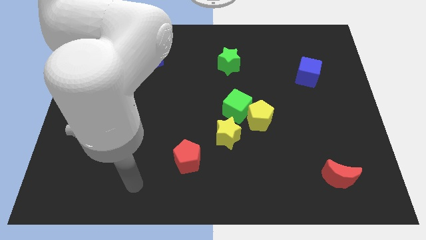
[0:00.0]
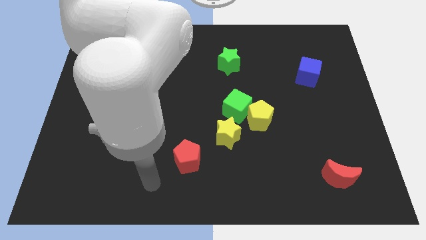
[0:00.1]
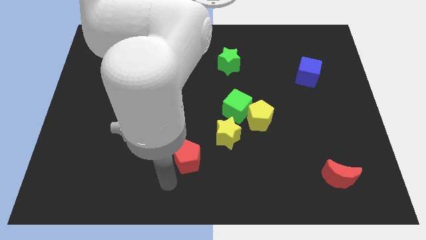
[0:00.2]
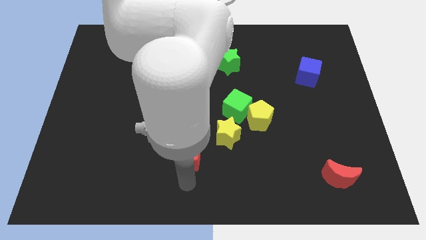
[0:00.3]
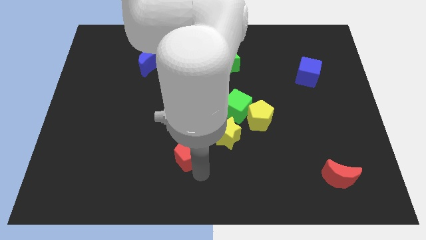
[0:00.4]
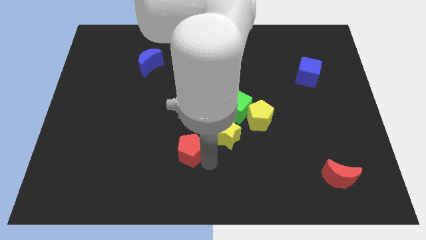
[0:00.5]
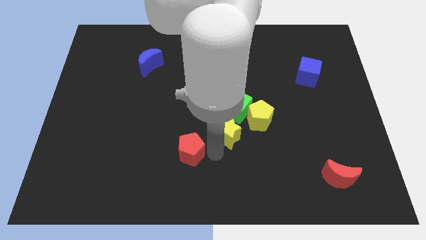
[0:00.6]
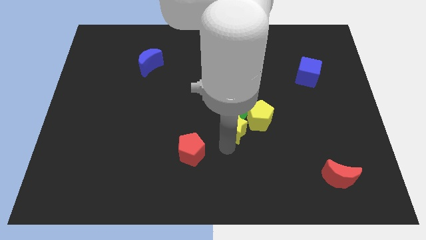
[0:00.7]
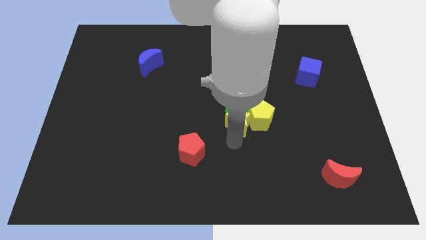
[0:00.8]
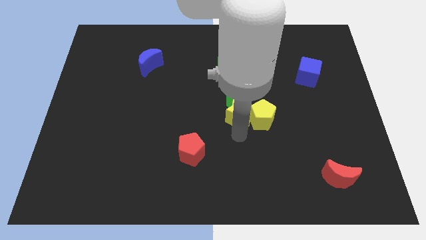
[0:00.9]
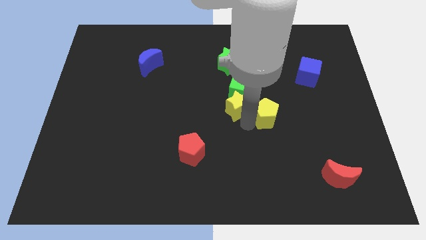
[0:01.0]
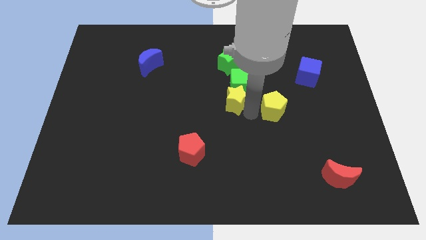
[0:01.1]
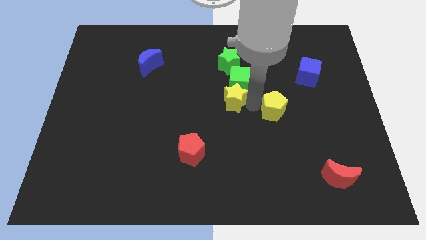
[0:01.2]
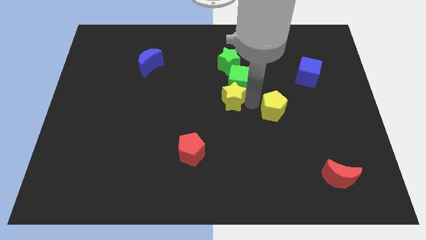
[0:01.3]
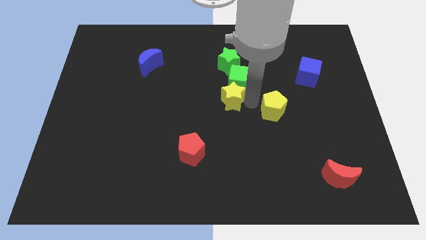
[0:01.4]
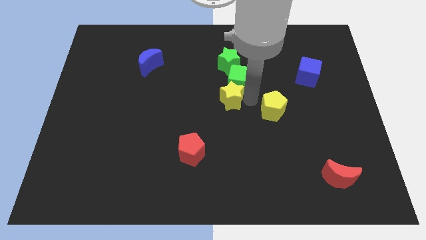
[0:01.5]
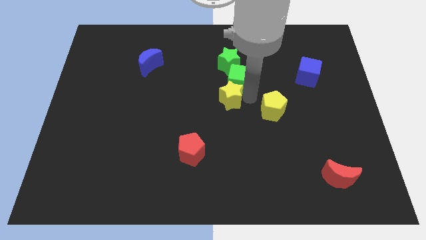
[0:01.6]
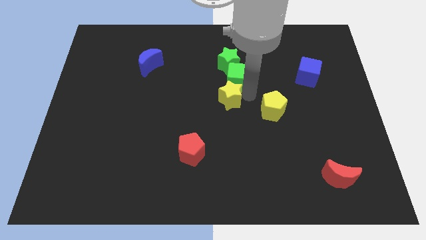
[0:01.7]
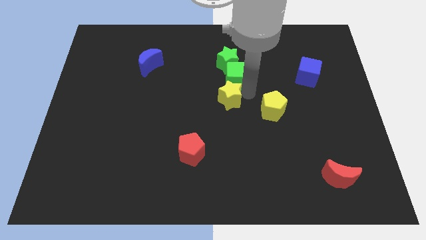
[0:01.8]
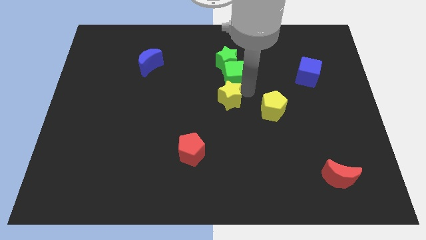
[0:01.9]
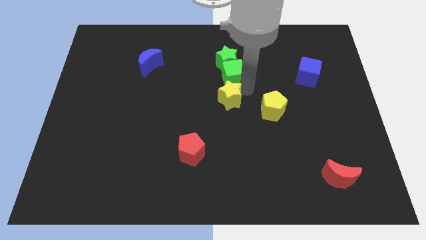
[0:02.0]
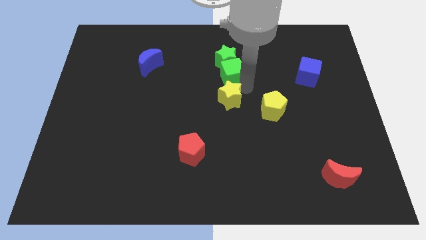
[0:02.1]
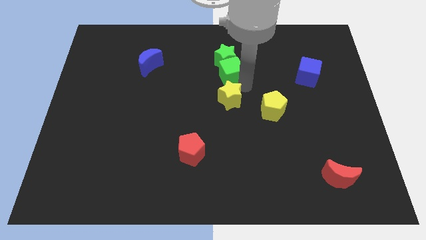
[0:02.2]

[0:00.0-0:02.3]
pull the green cube apart from the yellow pentagon and yellow star

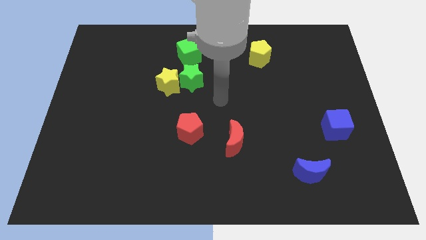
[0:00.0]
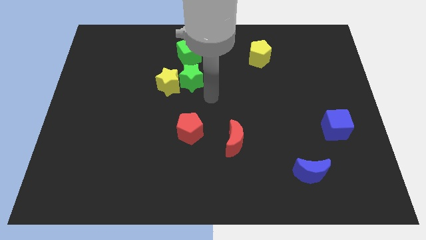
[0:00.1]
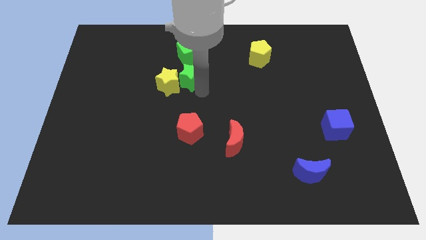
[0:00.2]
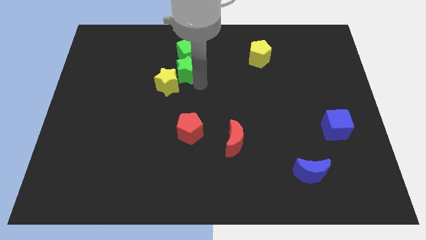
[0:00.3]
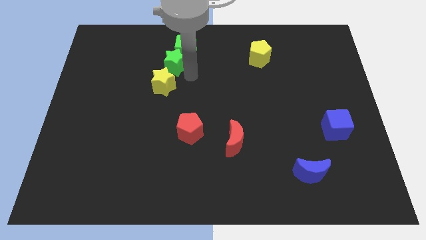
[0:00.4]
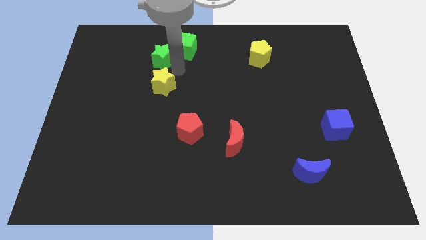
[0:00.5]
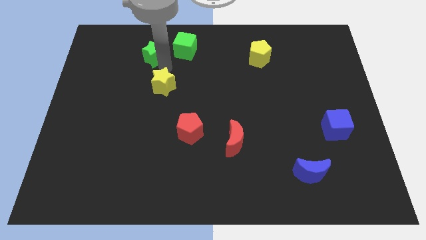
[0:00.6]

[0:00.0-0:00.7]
pull the yellow star apart from the green star

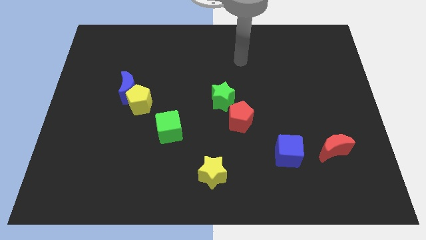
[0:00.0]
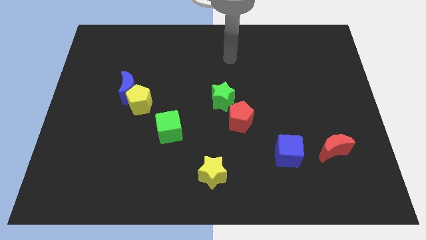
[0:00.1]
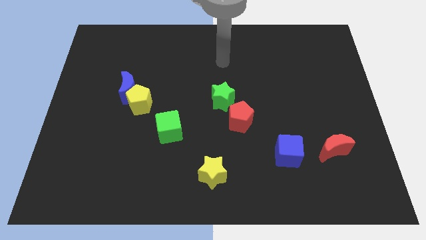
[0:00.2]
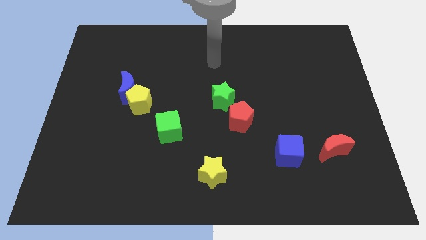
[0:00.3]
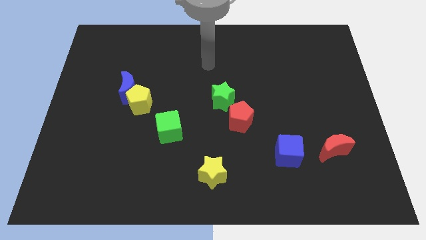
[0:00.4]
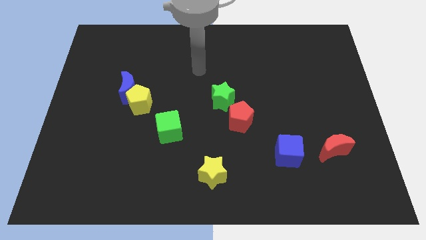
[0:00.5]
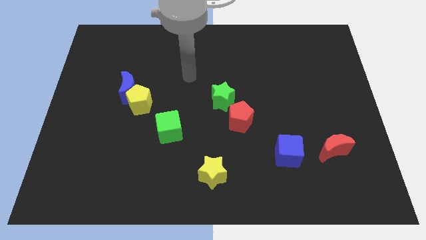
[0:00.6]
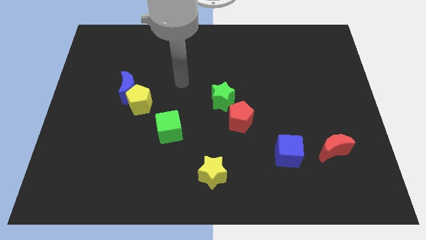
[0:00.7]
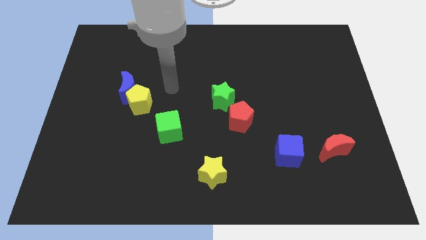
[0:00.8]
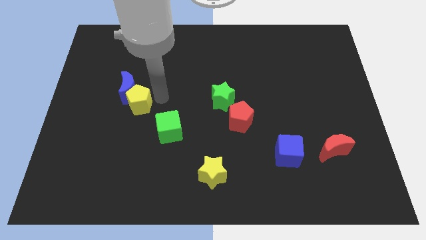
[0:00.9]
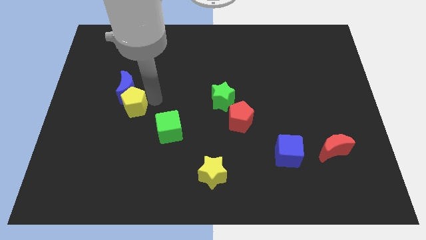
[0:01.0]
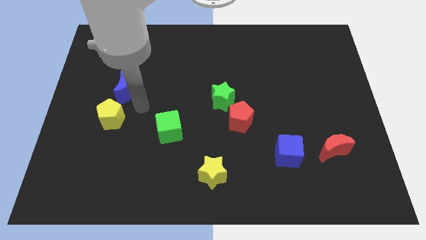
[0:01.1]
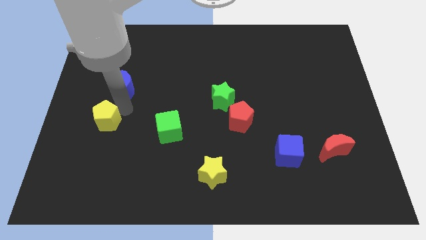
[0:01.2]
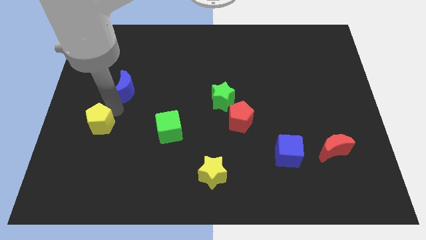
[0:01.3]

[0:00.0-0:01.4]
separate the blue moon from the yellow pentagon

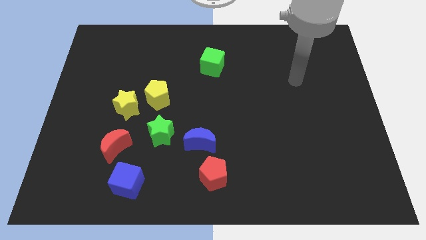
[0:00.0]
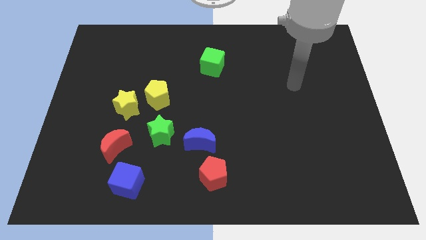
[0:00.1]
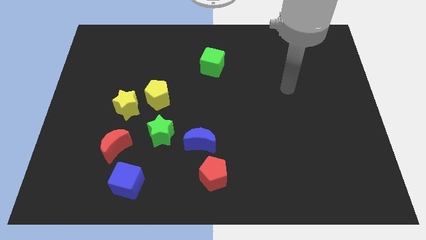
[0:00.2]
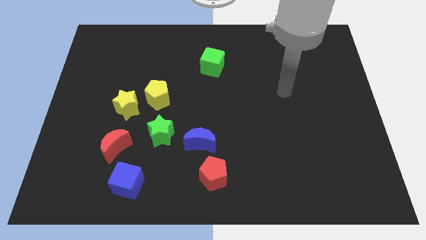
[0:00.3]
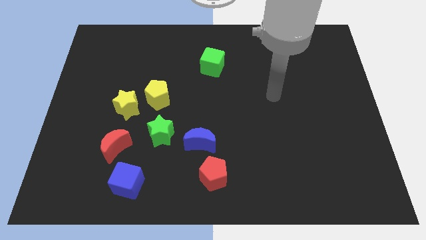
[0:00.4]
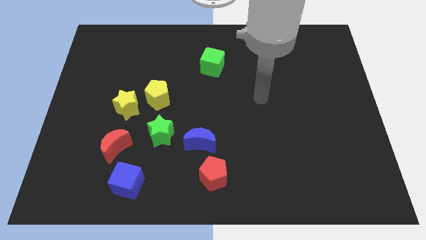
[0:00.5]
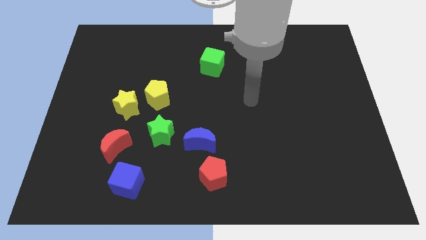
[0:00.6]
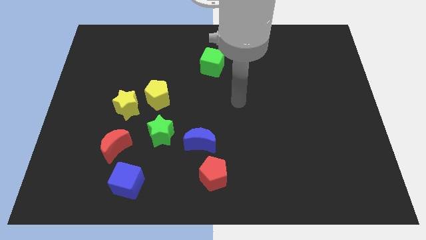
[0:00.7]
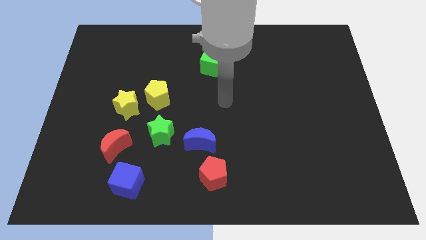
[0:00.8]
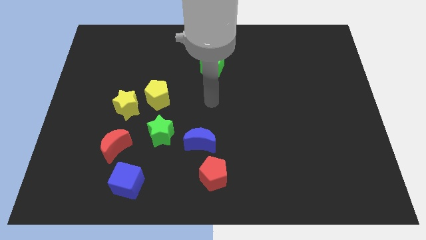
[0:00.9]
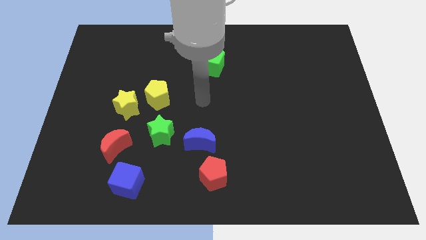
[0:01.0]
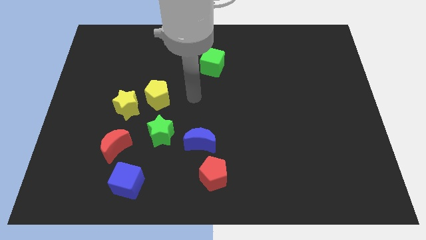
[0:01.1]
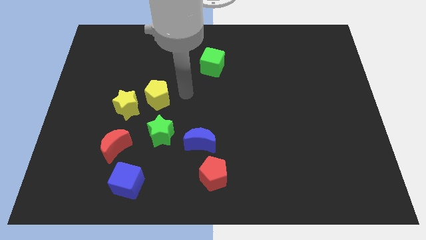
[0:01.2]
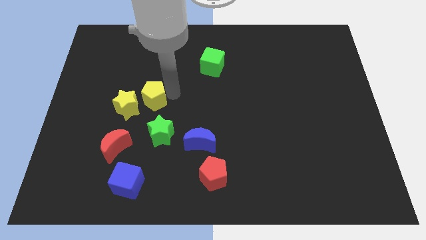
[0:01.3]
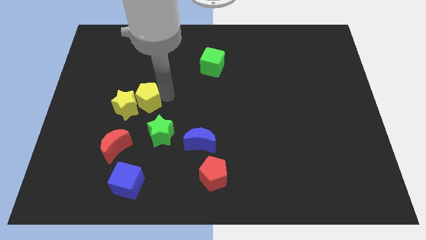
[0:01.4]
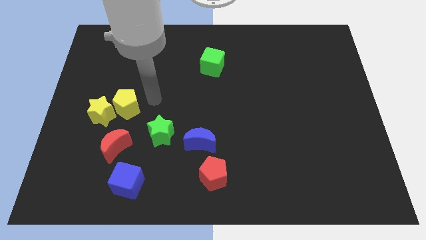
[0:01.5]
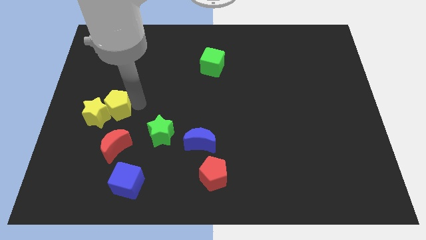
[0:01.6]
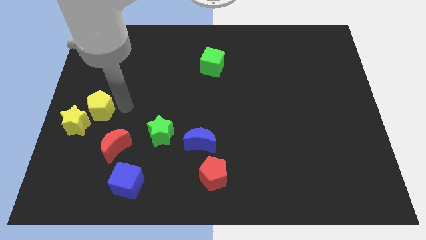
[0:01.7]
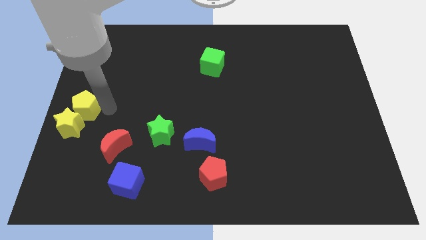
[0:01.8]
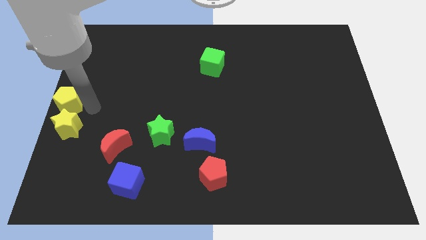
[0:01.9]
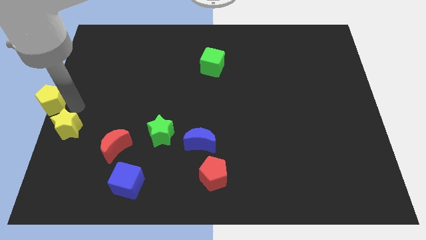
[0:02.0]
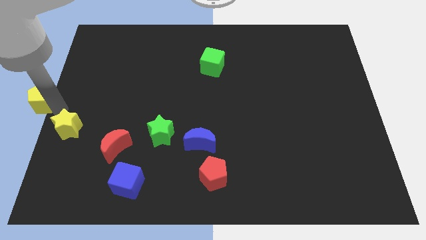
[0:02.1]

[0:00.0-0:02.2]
move the yellow star away from the yellow pentagon

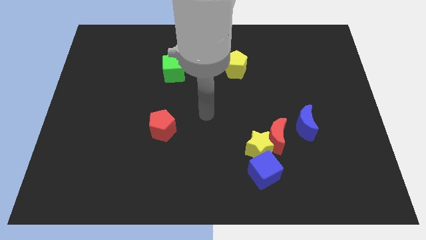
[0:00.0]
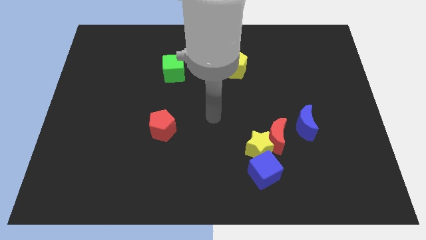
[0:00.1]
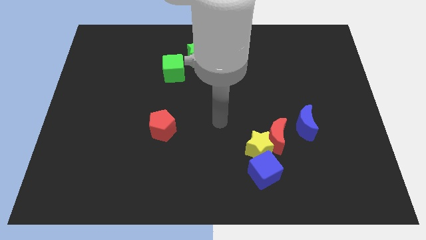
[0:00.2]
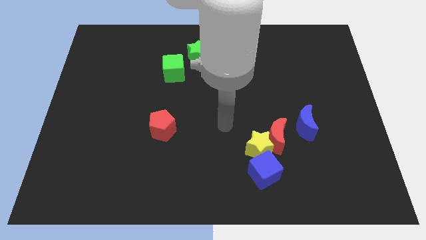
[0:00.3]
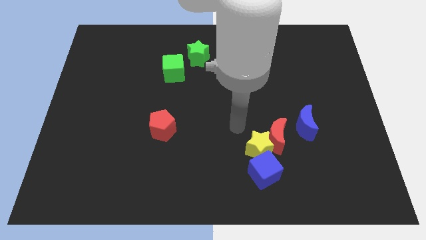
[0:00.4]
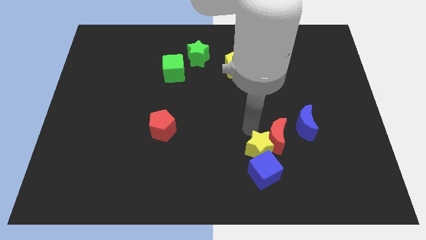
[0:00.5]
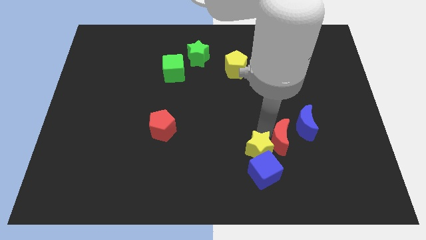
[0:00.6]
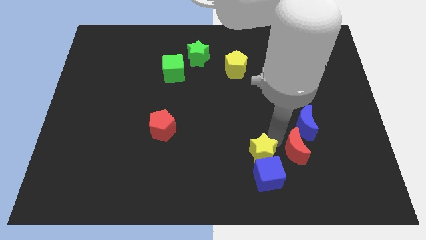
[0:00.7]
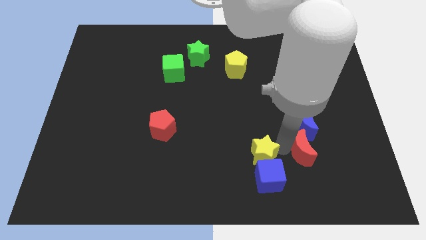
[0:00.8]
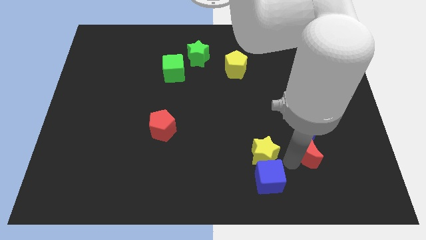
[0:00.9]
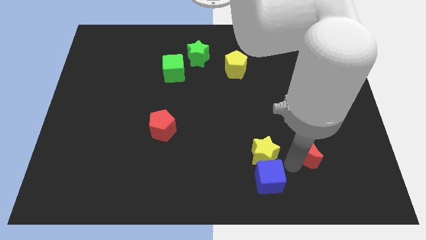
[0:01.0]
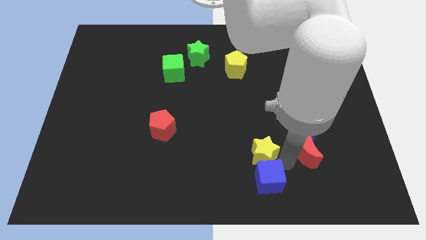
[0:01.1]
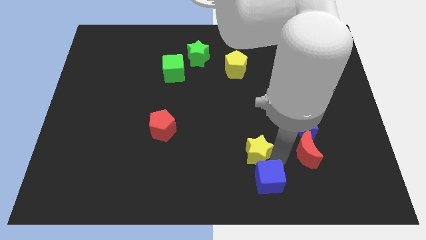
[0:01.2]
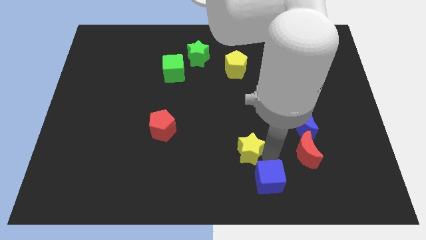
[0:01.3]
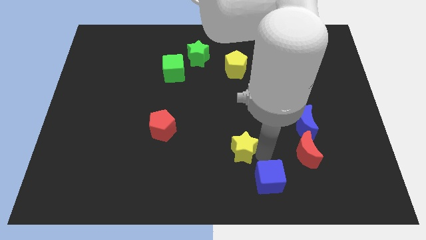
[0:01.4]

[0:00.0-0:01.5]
pull the yellow star apart from the red moon and blue cube

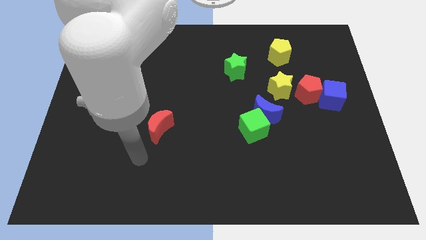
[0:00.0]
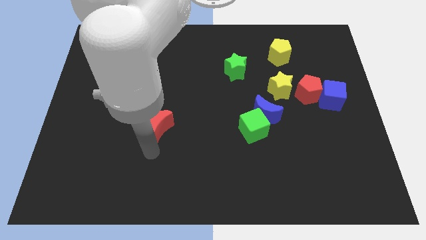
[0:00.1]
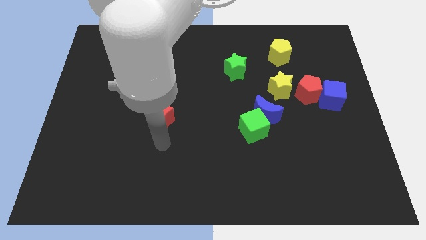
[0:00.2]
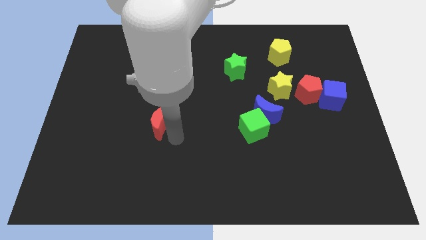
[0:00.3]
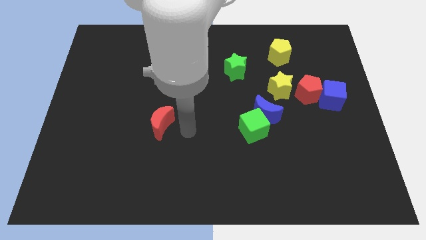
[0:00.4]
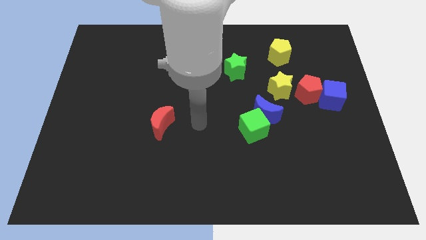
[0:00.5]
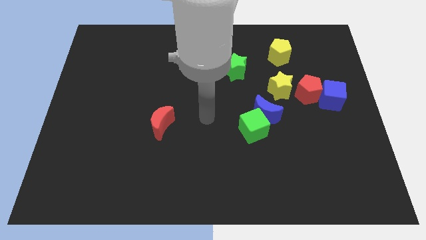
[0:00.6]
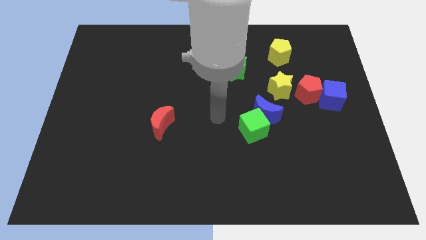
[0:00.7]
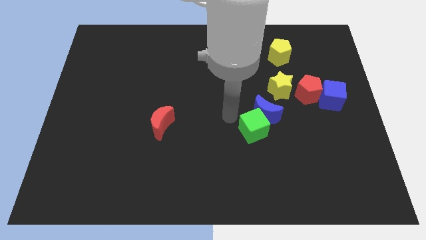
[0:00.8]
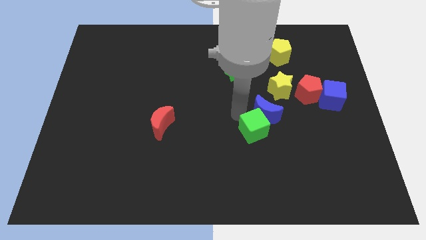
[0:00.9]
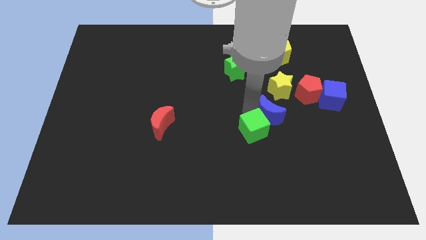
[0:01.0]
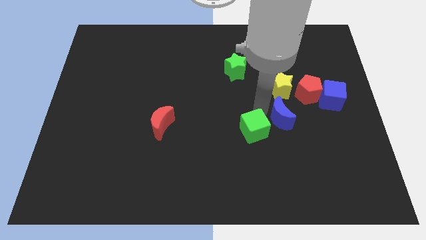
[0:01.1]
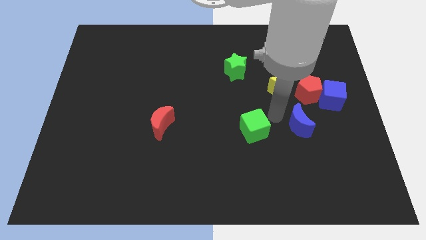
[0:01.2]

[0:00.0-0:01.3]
move the green cube away from the blue moon
